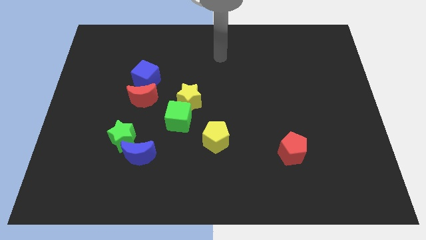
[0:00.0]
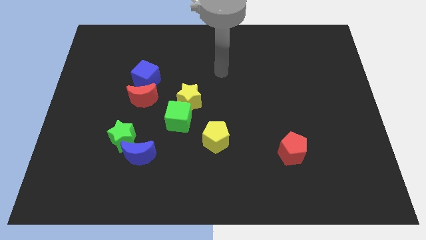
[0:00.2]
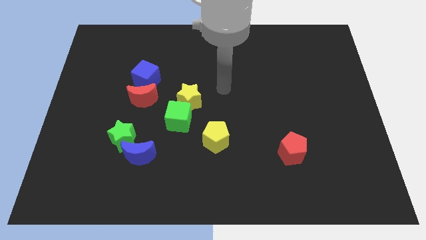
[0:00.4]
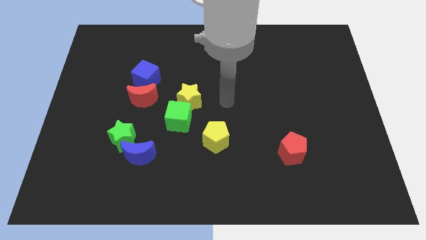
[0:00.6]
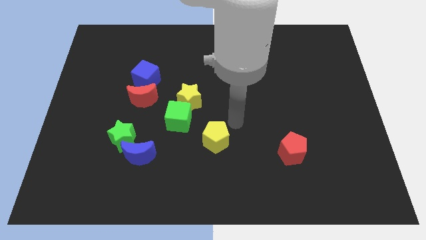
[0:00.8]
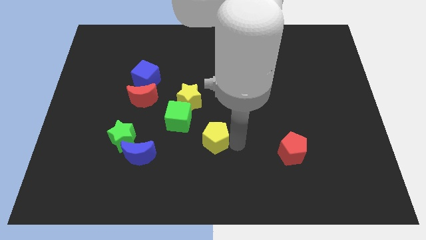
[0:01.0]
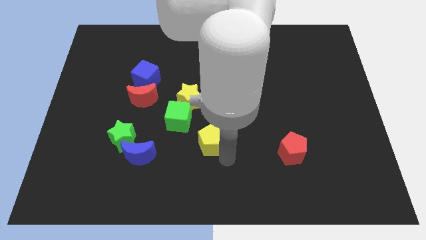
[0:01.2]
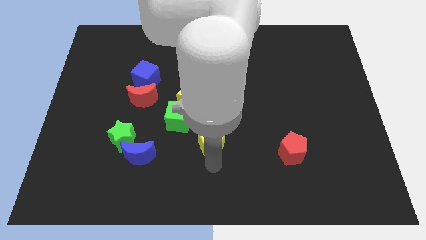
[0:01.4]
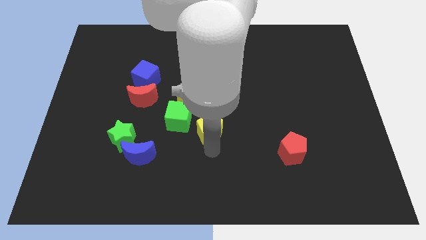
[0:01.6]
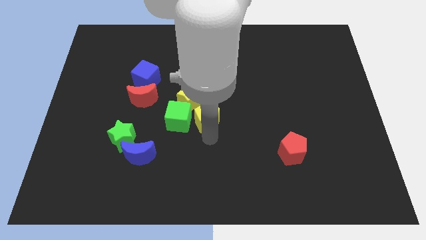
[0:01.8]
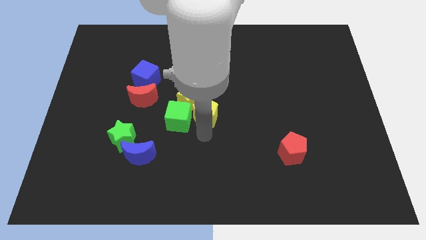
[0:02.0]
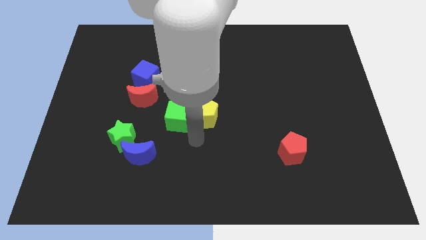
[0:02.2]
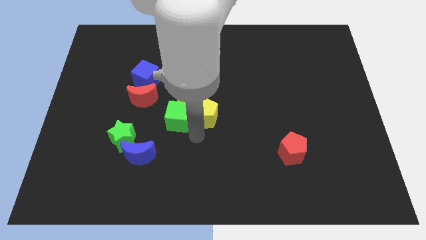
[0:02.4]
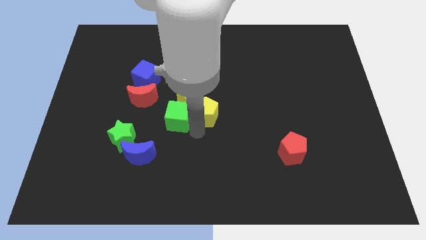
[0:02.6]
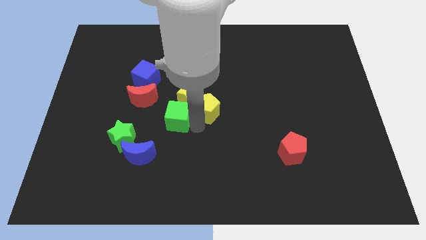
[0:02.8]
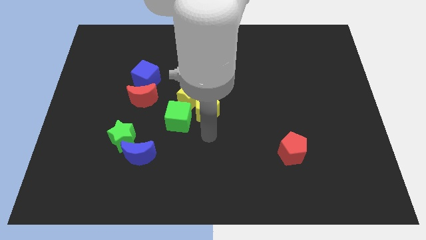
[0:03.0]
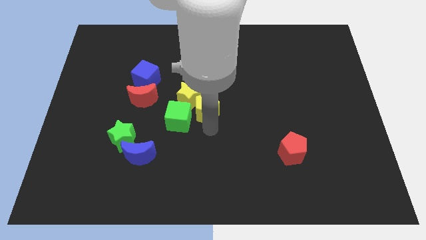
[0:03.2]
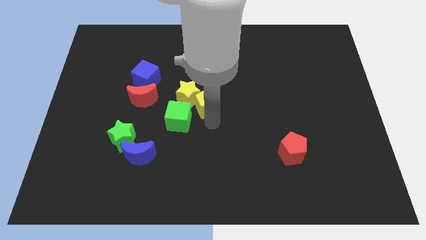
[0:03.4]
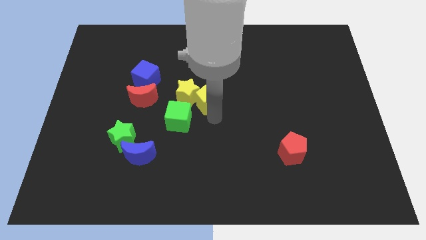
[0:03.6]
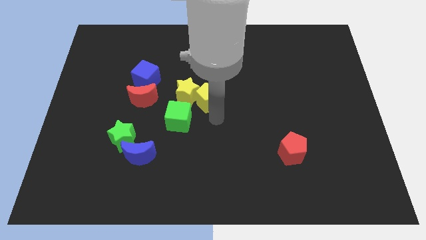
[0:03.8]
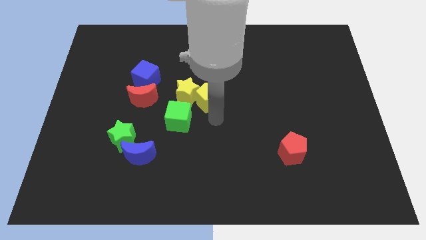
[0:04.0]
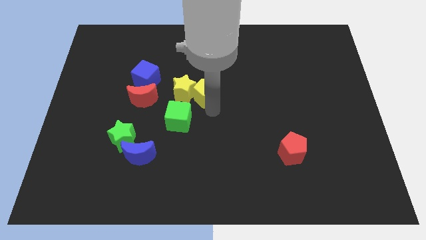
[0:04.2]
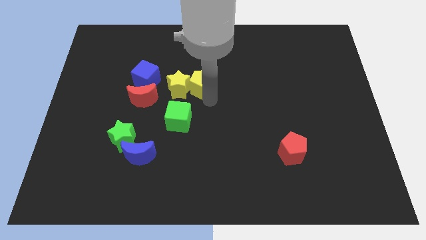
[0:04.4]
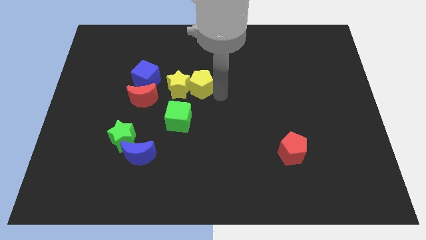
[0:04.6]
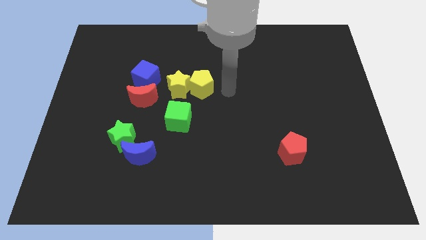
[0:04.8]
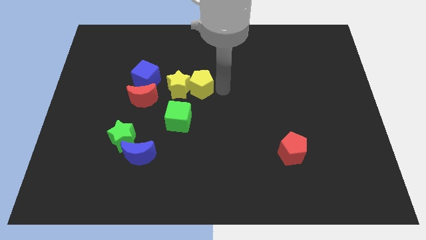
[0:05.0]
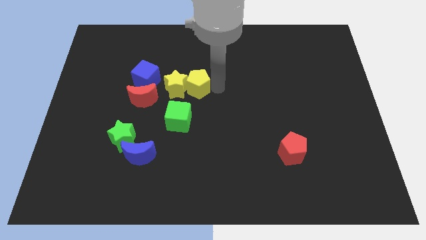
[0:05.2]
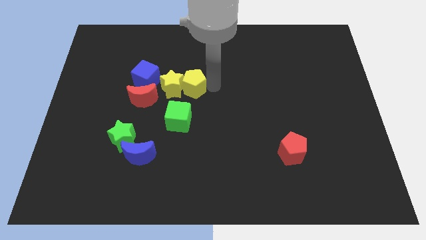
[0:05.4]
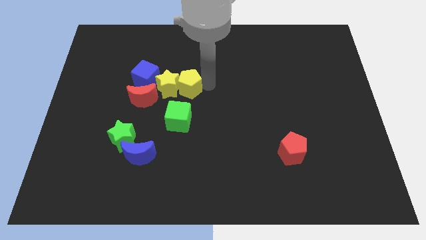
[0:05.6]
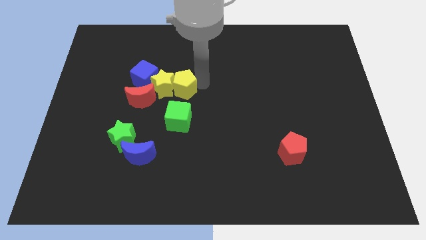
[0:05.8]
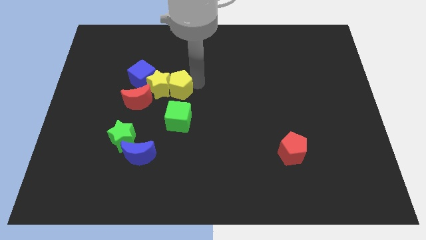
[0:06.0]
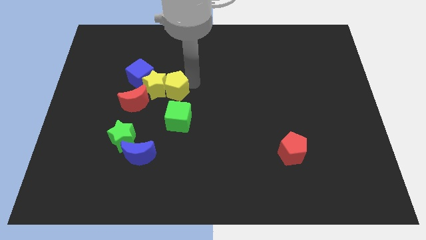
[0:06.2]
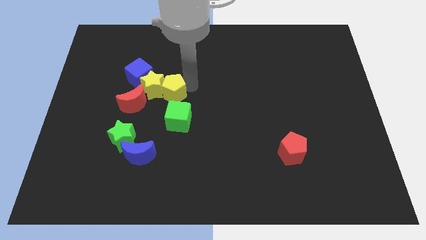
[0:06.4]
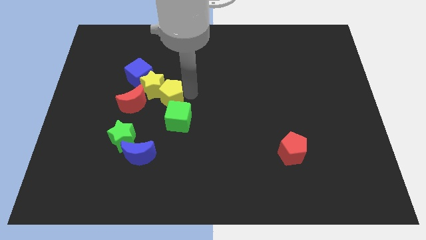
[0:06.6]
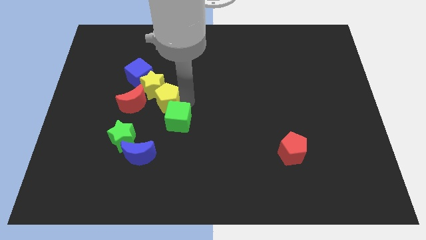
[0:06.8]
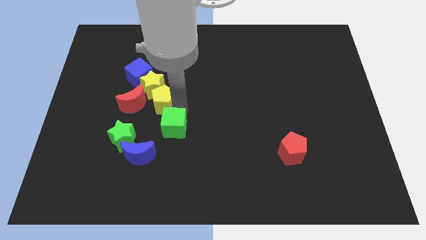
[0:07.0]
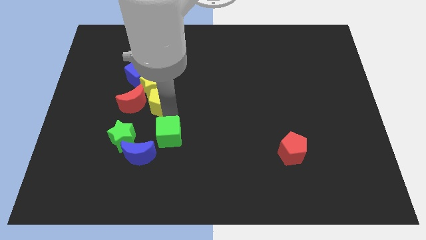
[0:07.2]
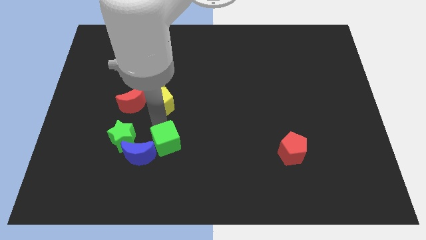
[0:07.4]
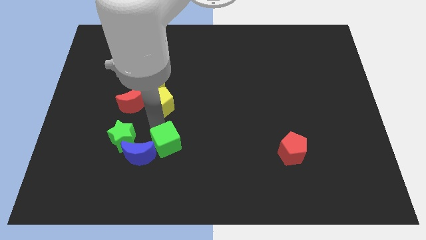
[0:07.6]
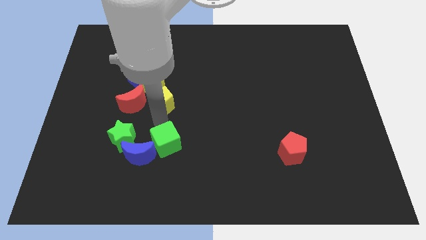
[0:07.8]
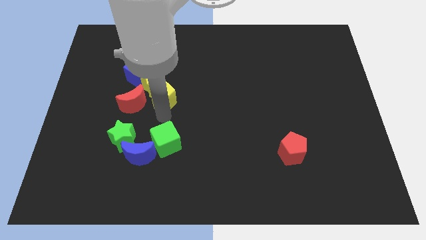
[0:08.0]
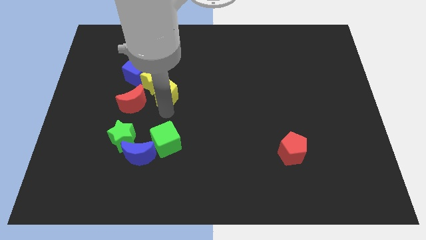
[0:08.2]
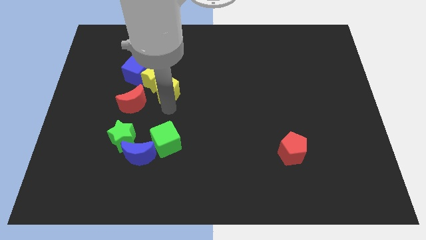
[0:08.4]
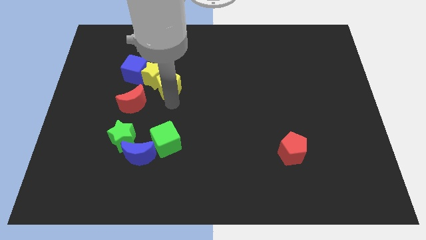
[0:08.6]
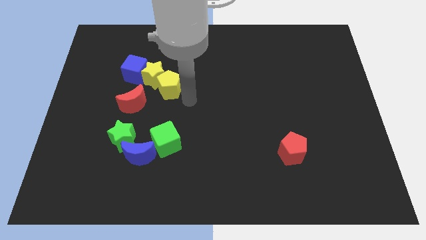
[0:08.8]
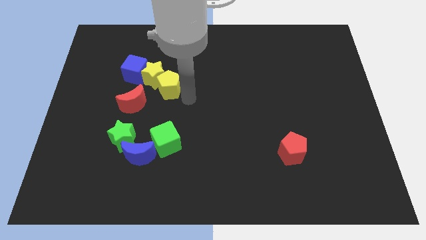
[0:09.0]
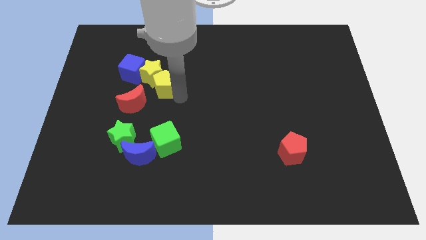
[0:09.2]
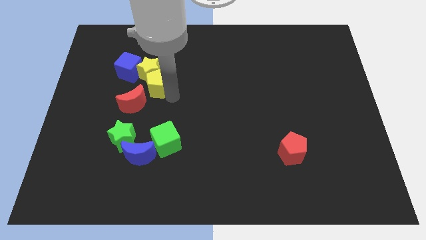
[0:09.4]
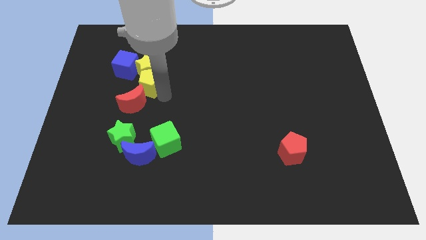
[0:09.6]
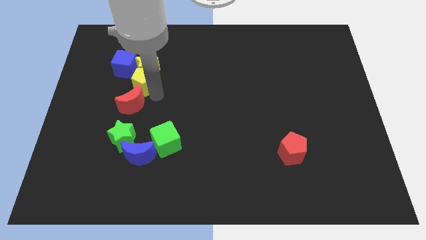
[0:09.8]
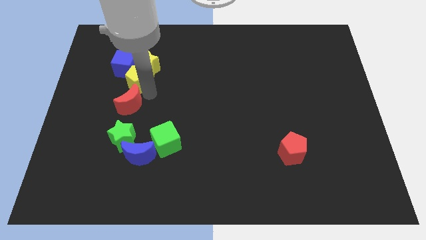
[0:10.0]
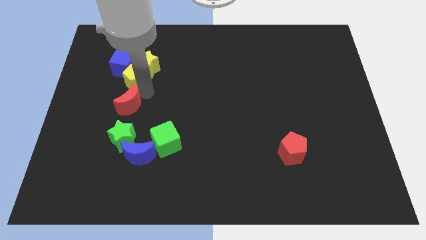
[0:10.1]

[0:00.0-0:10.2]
move the yellow pentagon next to the blue cube

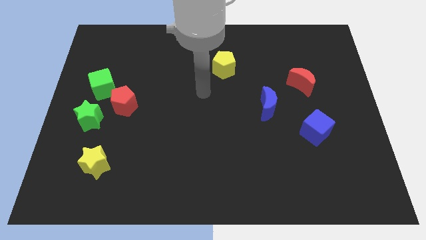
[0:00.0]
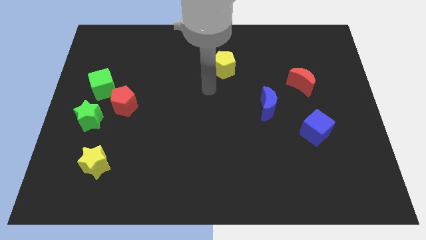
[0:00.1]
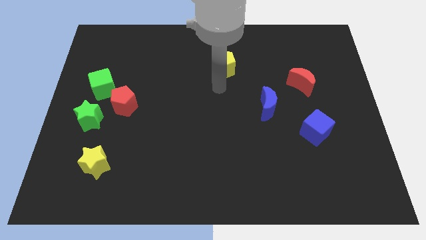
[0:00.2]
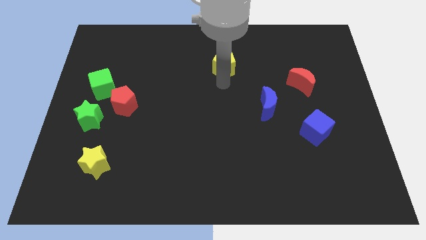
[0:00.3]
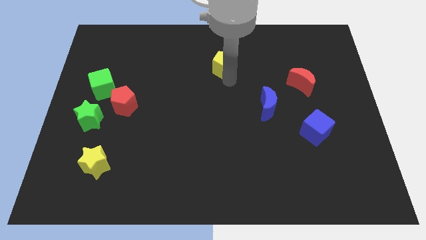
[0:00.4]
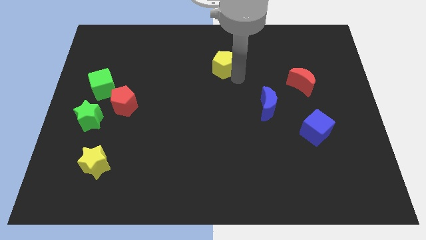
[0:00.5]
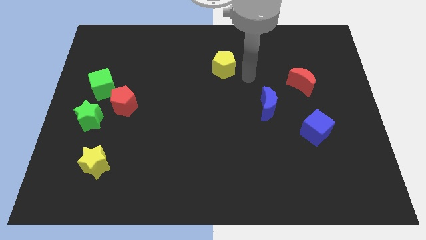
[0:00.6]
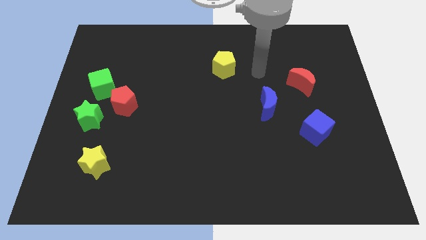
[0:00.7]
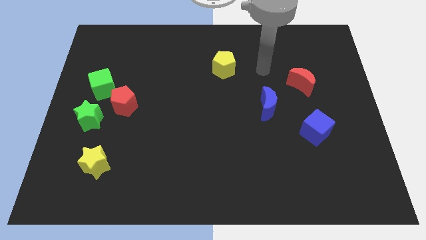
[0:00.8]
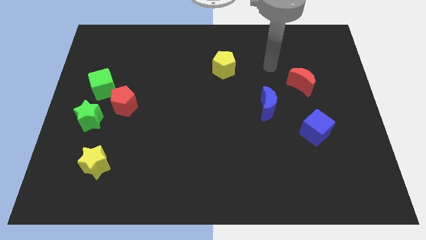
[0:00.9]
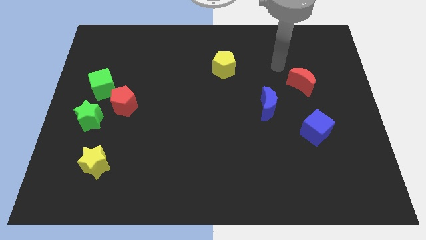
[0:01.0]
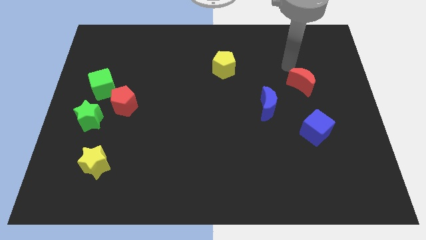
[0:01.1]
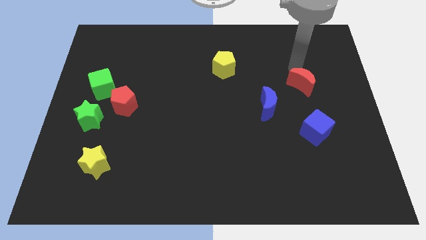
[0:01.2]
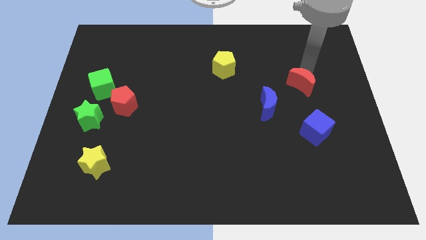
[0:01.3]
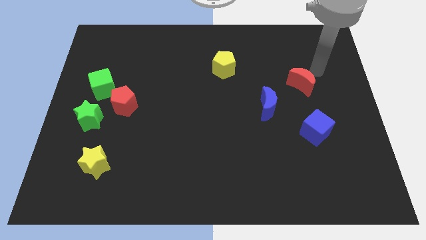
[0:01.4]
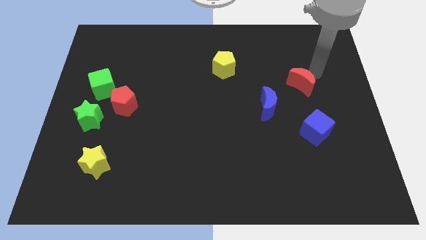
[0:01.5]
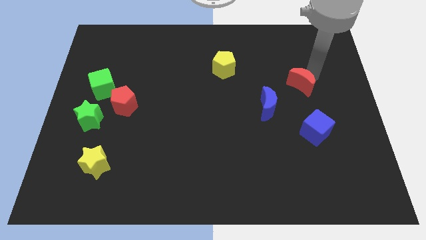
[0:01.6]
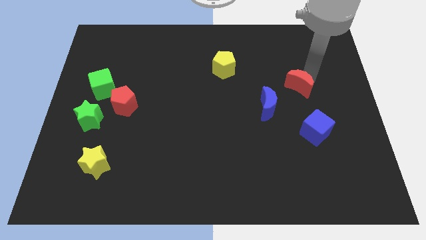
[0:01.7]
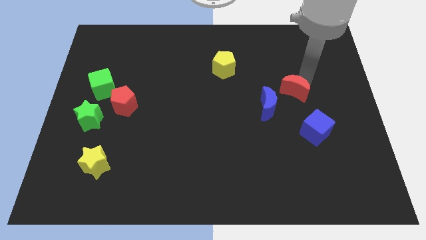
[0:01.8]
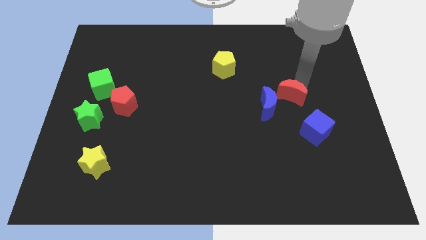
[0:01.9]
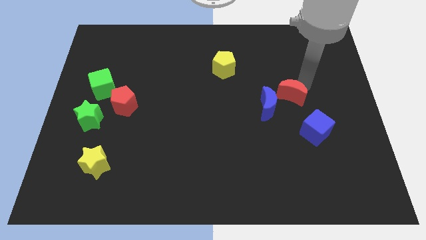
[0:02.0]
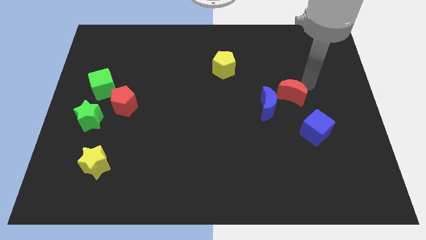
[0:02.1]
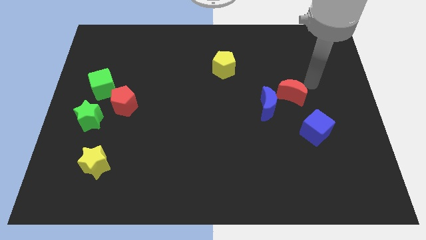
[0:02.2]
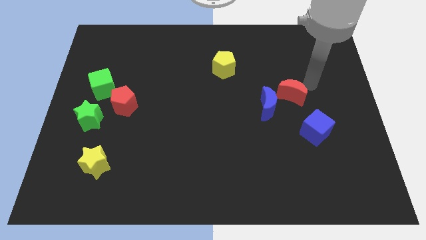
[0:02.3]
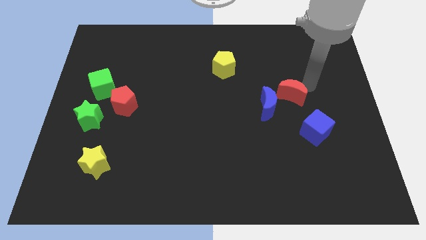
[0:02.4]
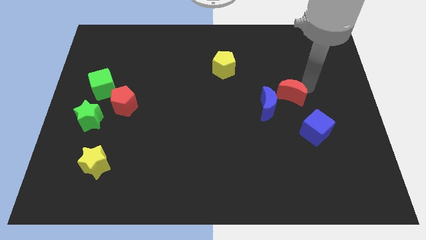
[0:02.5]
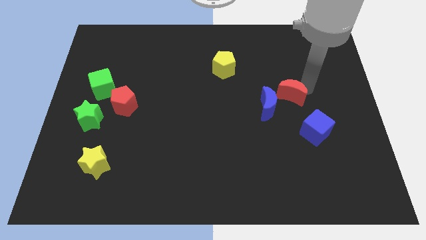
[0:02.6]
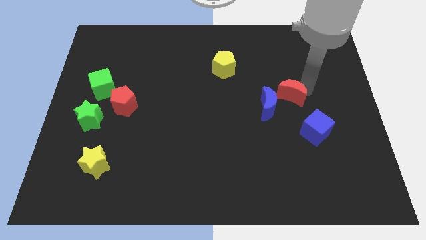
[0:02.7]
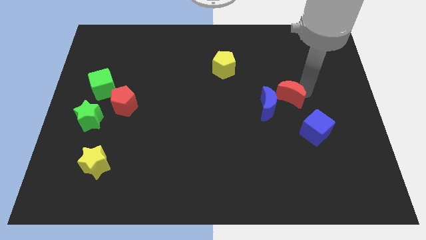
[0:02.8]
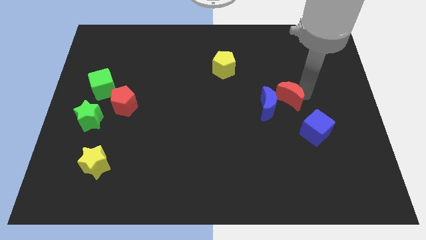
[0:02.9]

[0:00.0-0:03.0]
move the red moon next to the blue moon
